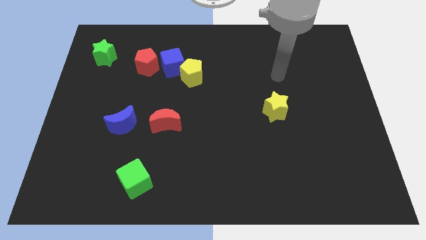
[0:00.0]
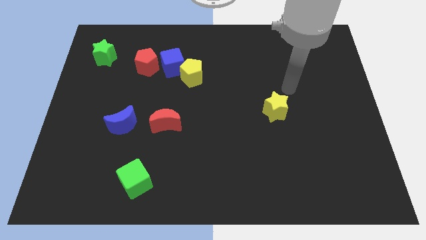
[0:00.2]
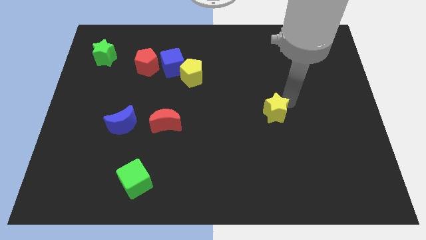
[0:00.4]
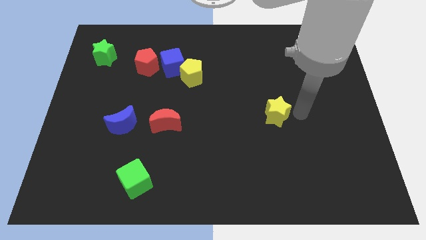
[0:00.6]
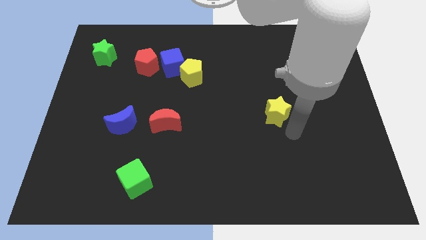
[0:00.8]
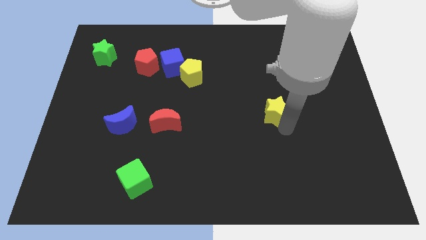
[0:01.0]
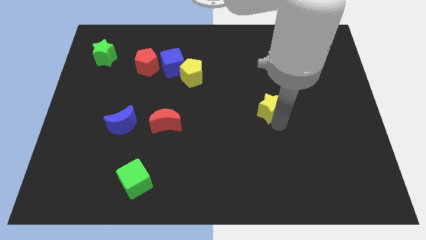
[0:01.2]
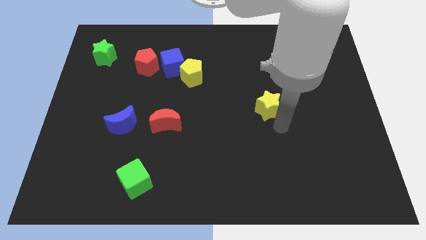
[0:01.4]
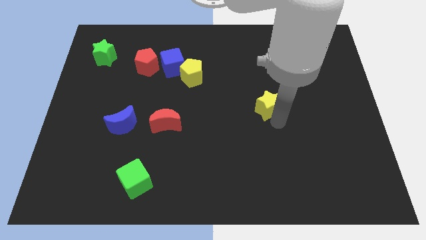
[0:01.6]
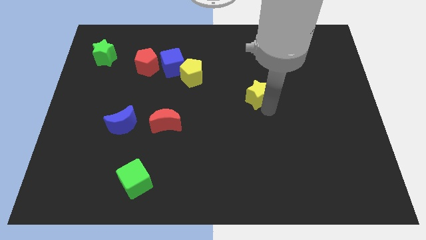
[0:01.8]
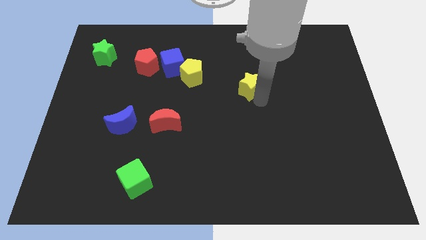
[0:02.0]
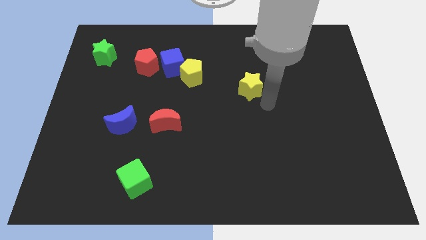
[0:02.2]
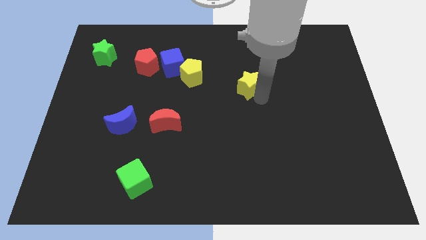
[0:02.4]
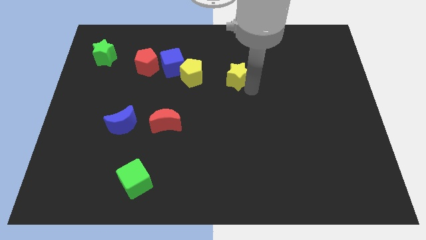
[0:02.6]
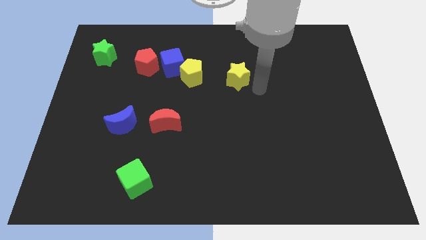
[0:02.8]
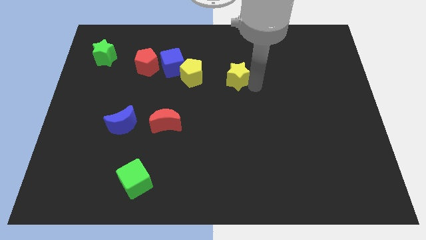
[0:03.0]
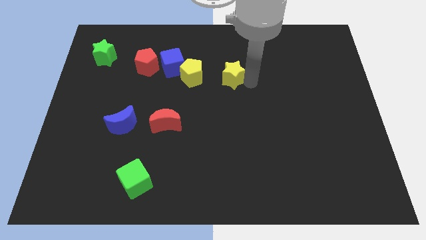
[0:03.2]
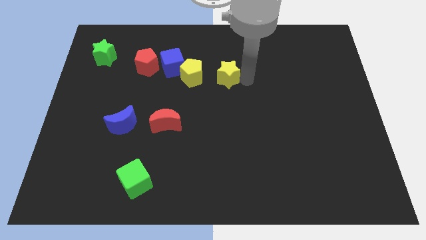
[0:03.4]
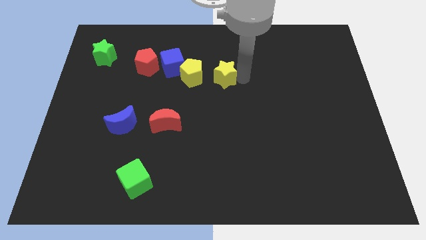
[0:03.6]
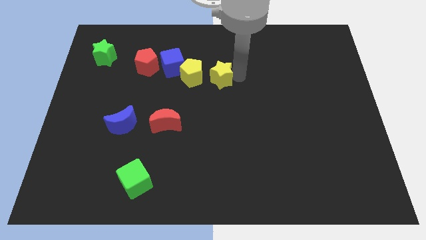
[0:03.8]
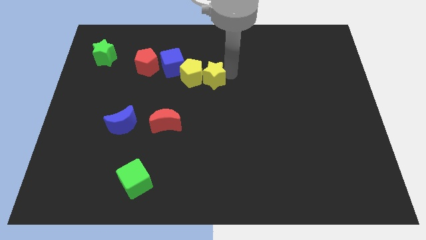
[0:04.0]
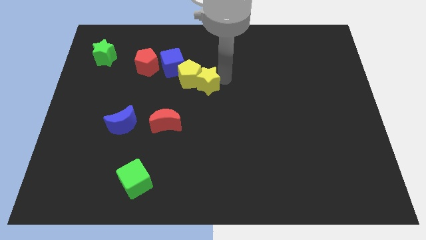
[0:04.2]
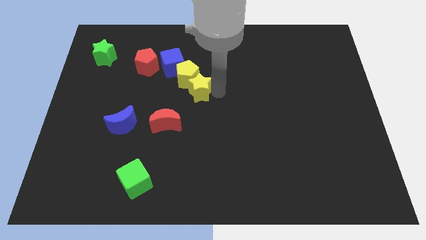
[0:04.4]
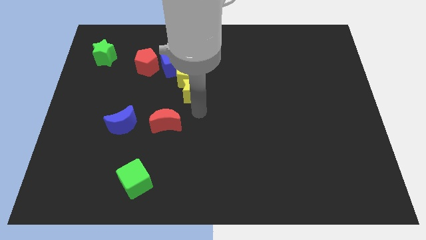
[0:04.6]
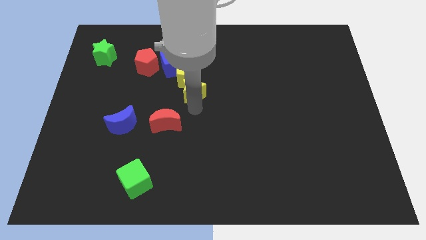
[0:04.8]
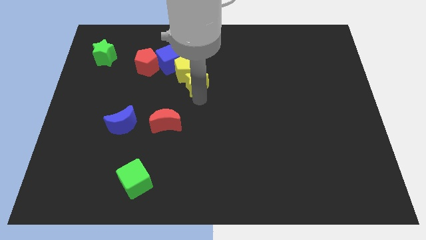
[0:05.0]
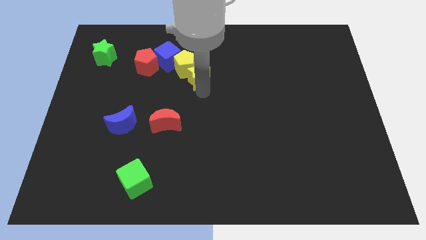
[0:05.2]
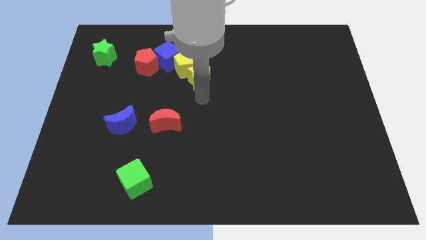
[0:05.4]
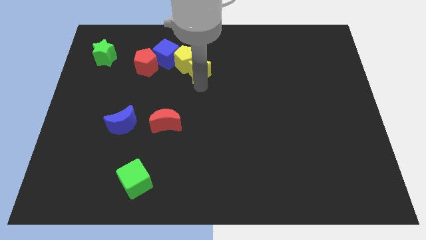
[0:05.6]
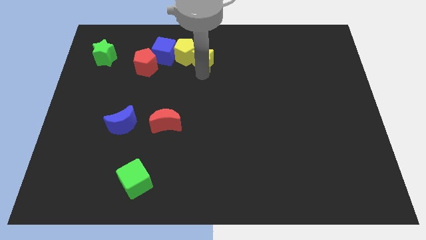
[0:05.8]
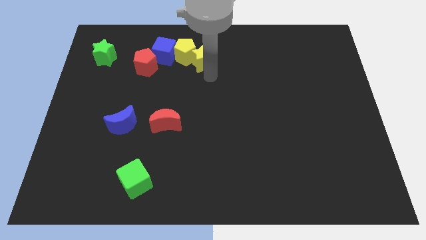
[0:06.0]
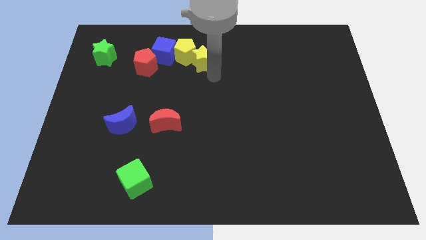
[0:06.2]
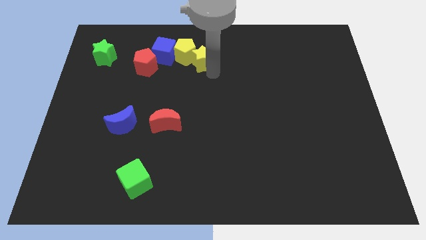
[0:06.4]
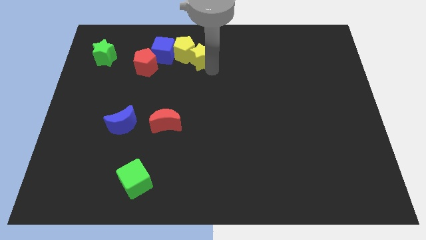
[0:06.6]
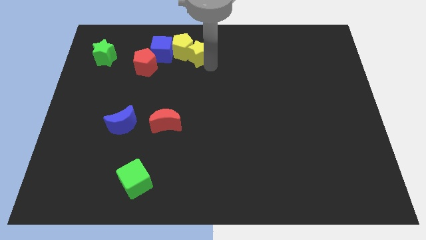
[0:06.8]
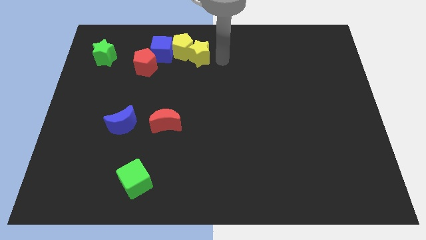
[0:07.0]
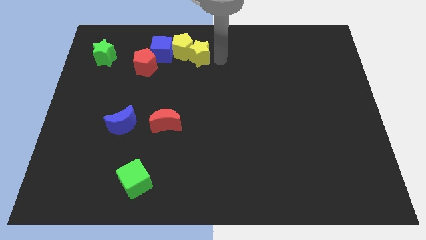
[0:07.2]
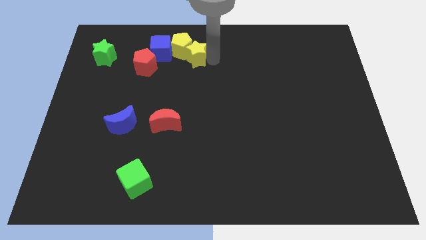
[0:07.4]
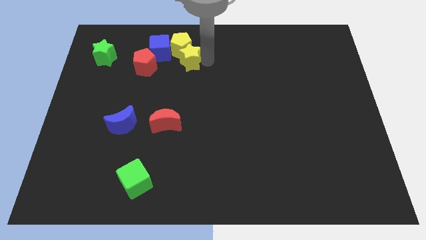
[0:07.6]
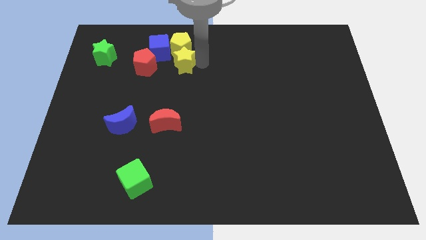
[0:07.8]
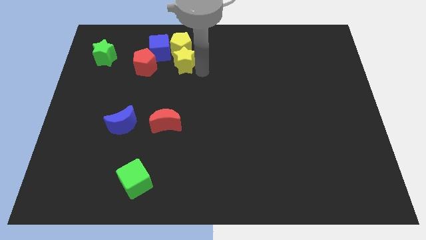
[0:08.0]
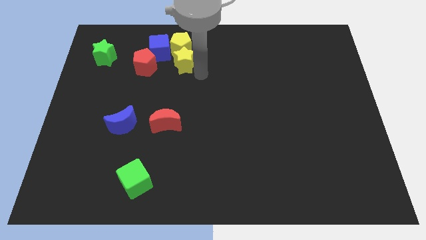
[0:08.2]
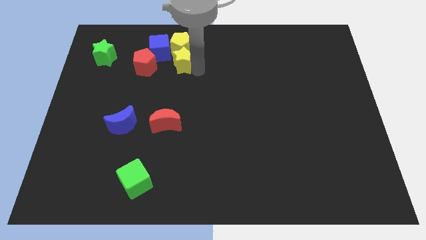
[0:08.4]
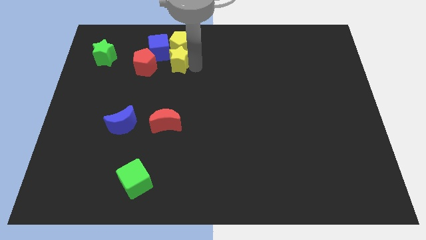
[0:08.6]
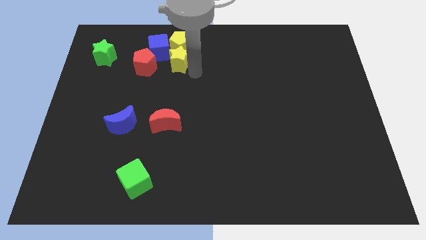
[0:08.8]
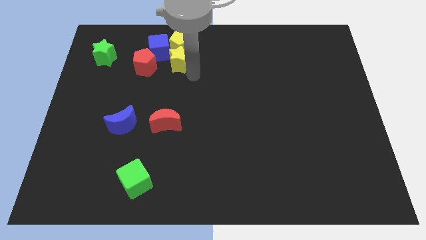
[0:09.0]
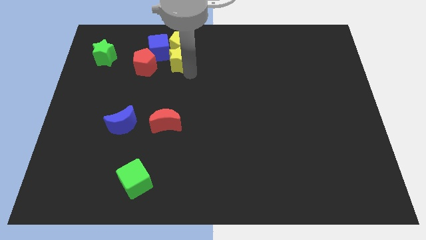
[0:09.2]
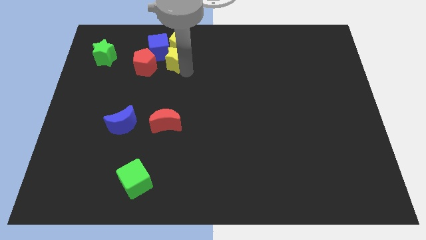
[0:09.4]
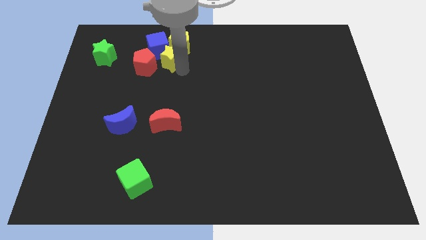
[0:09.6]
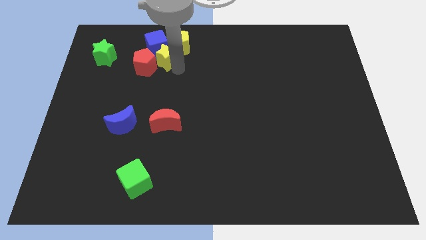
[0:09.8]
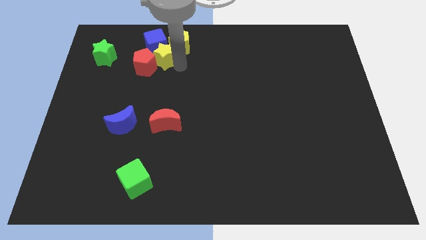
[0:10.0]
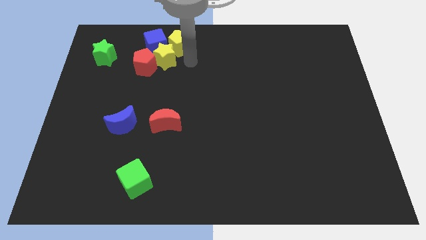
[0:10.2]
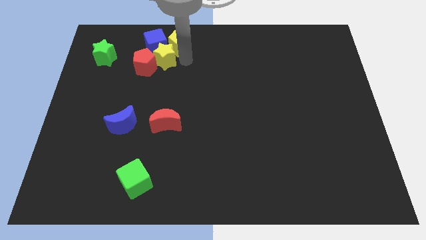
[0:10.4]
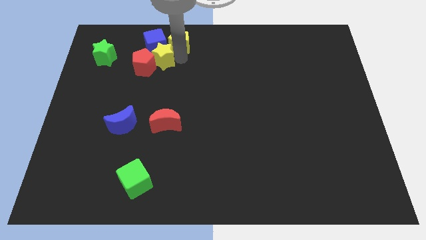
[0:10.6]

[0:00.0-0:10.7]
move the yellow star to the right side of the green star

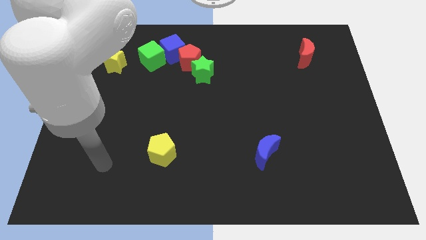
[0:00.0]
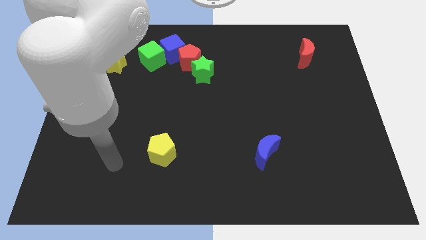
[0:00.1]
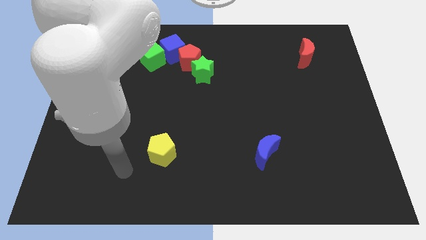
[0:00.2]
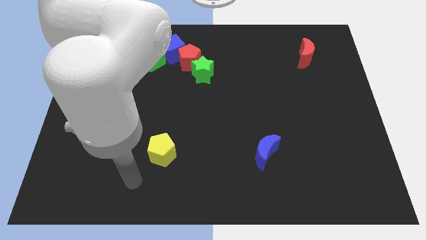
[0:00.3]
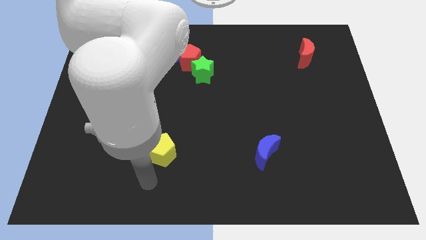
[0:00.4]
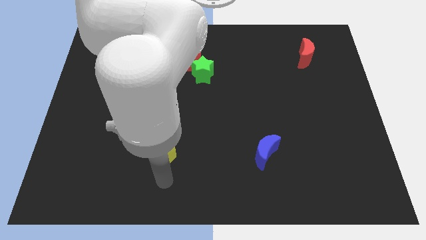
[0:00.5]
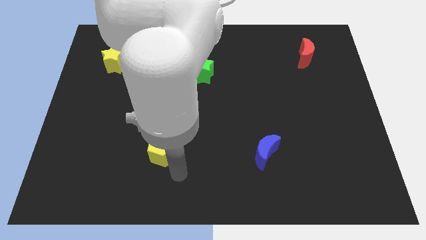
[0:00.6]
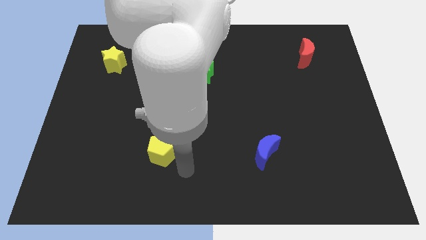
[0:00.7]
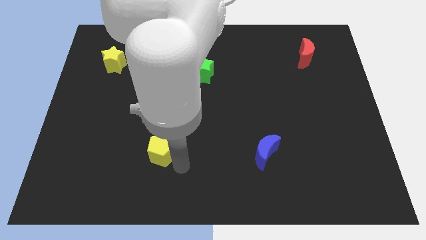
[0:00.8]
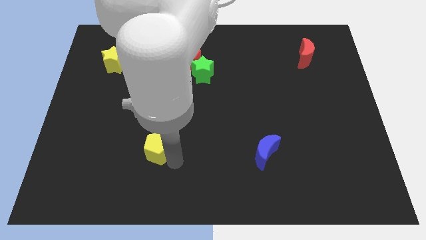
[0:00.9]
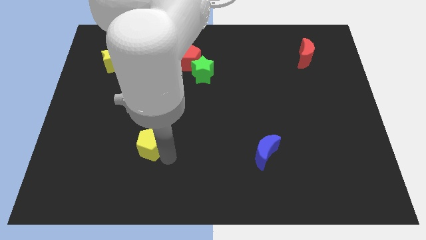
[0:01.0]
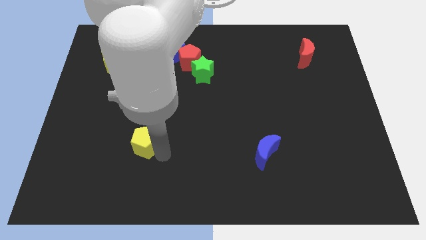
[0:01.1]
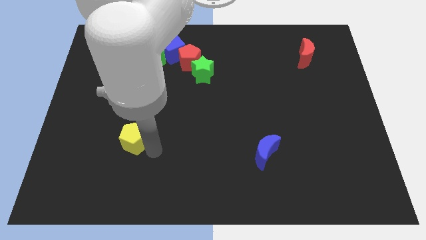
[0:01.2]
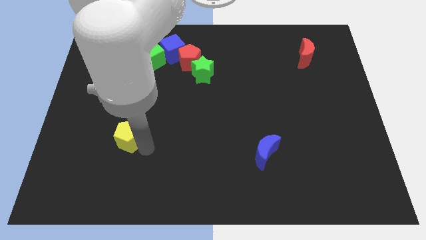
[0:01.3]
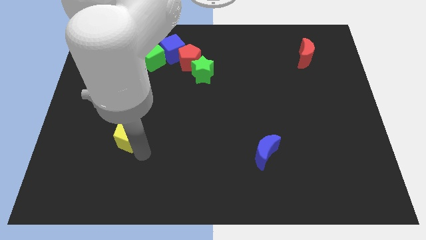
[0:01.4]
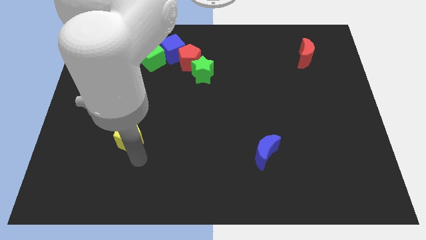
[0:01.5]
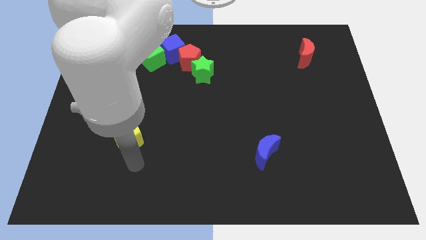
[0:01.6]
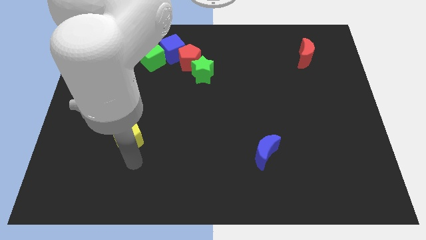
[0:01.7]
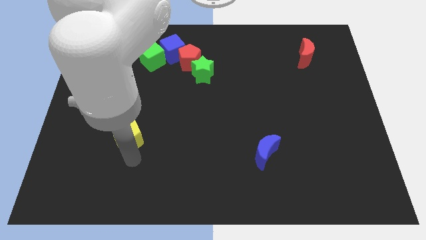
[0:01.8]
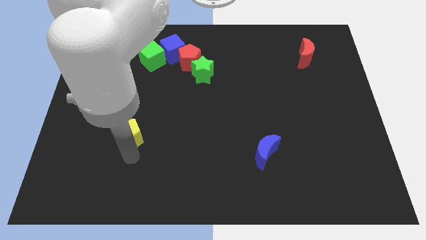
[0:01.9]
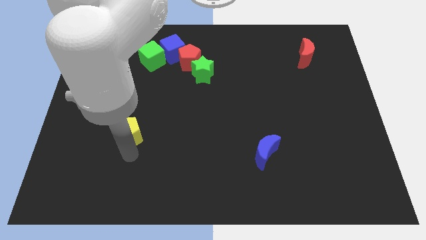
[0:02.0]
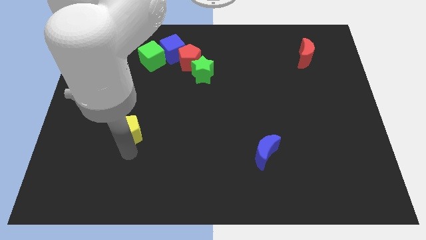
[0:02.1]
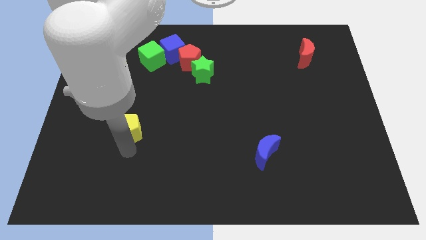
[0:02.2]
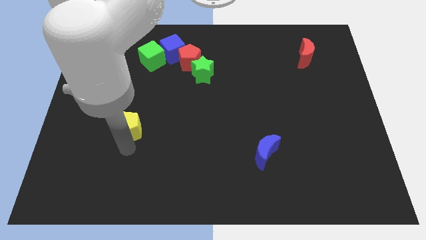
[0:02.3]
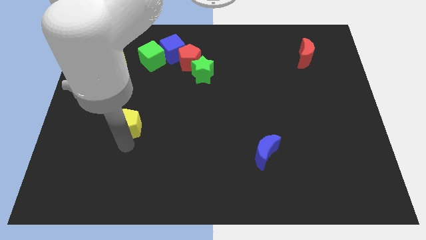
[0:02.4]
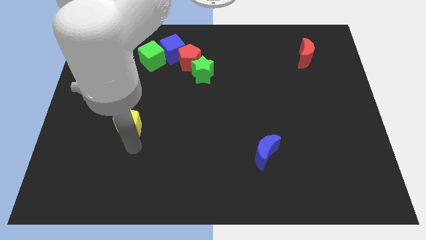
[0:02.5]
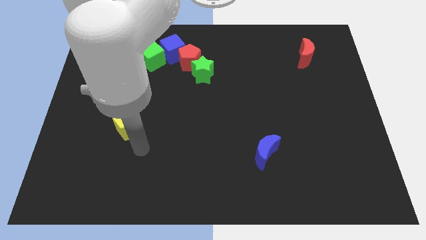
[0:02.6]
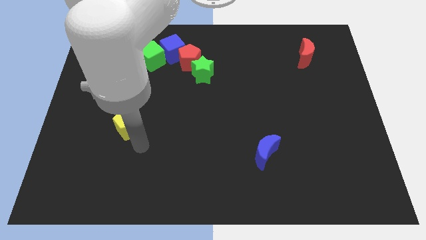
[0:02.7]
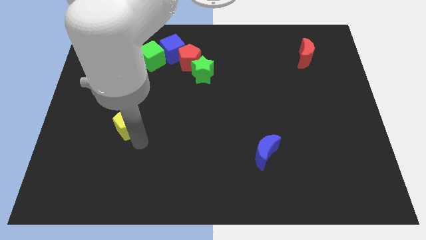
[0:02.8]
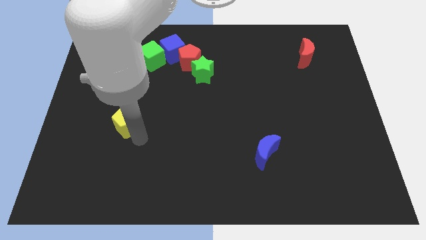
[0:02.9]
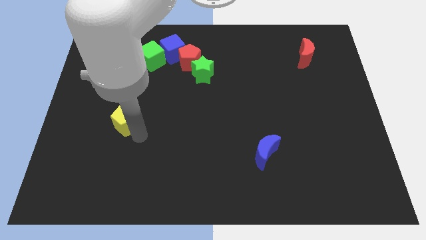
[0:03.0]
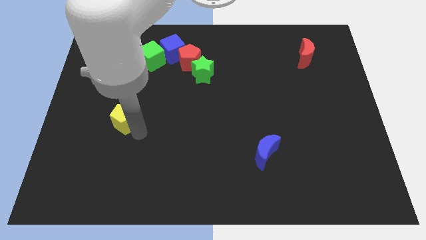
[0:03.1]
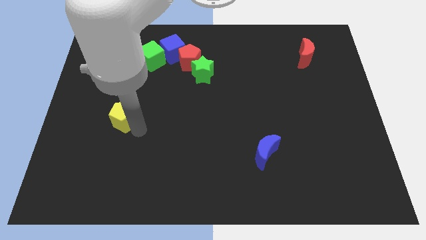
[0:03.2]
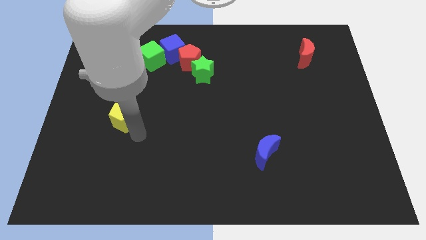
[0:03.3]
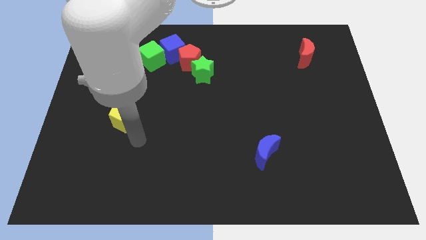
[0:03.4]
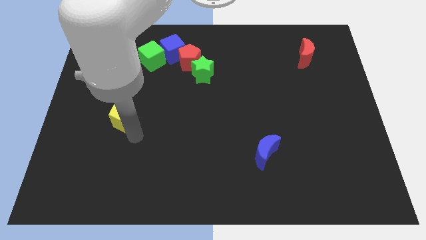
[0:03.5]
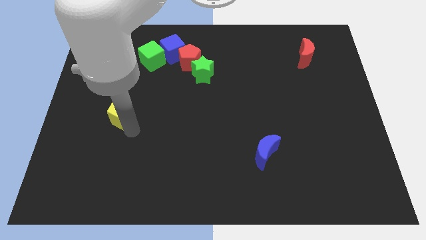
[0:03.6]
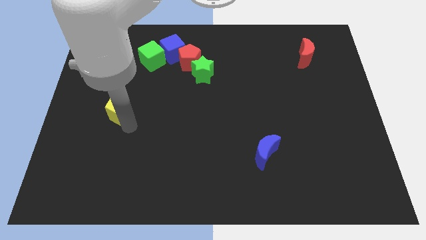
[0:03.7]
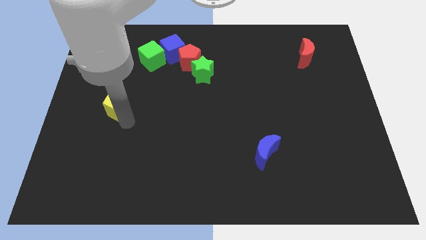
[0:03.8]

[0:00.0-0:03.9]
push the yellow pentagon to the bottom of the yellow star
